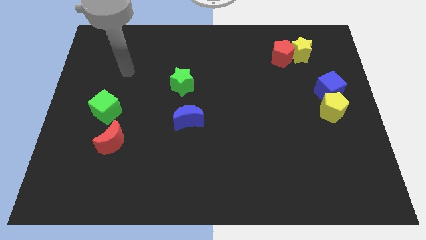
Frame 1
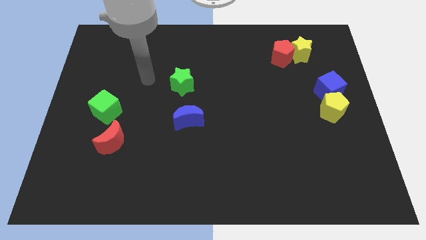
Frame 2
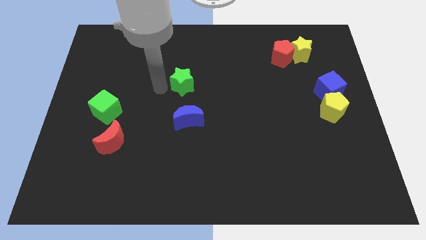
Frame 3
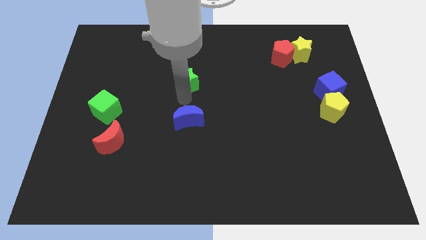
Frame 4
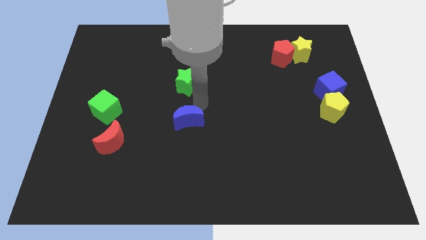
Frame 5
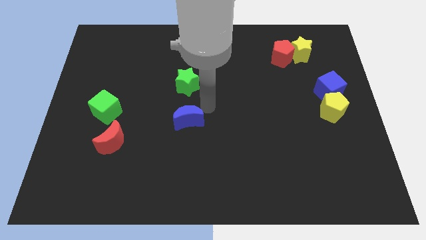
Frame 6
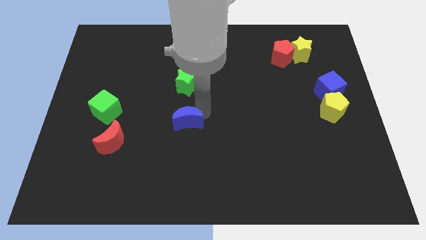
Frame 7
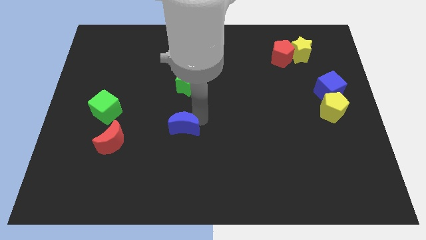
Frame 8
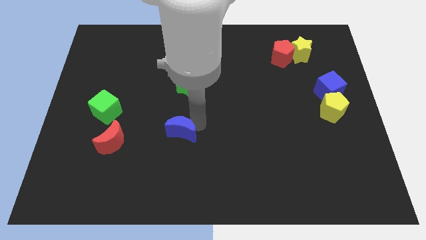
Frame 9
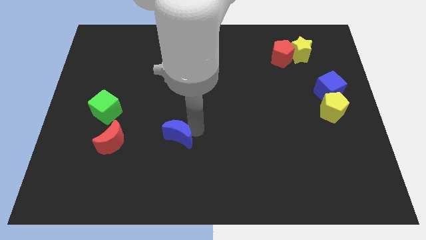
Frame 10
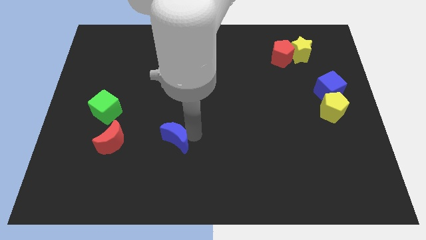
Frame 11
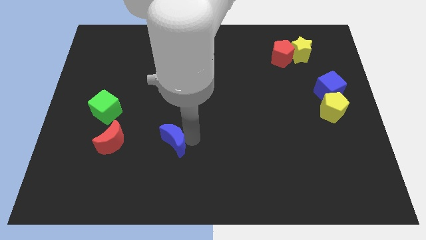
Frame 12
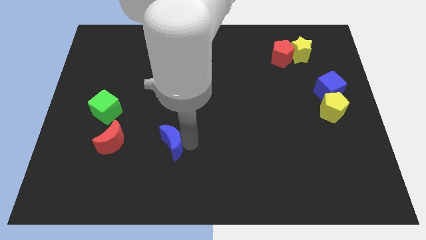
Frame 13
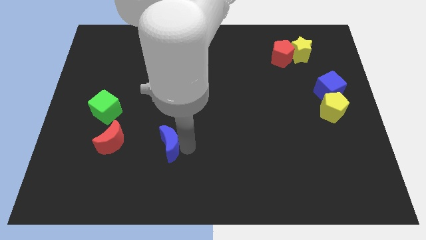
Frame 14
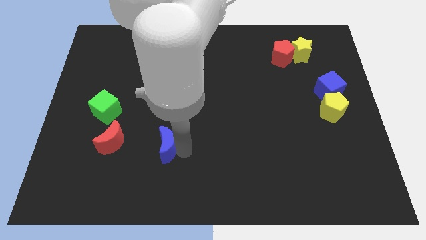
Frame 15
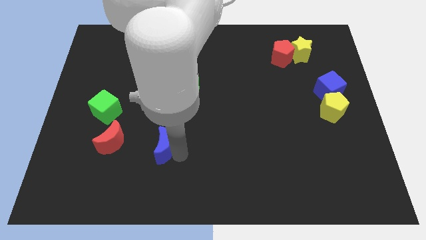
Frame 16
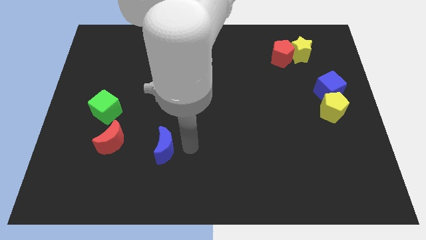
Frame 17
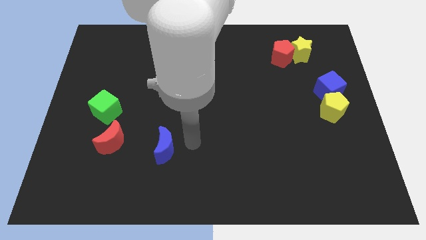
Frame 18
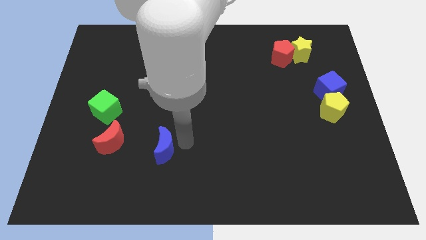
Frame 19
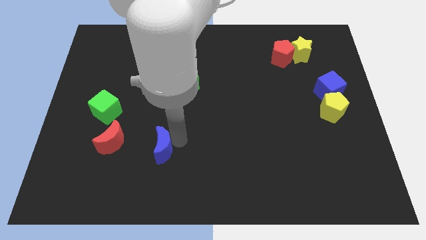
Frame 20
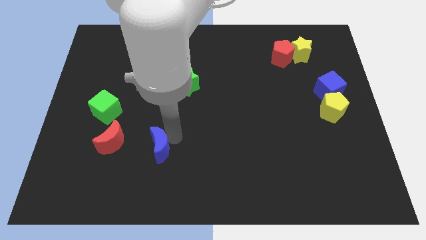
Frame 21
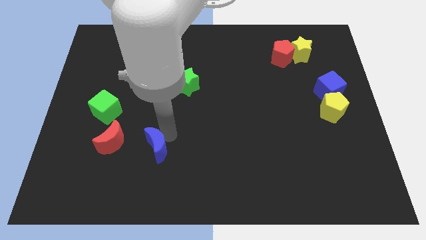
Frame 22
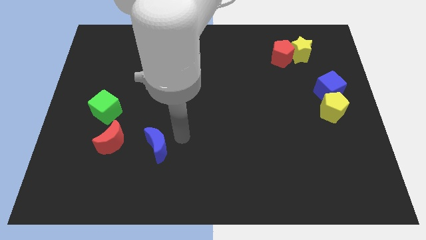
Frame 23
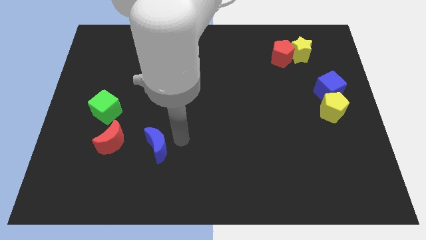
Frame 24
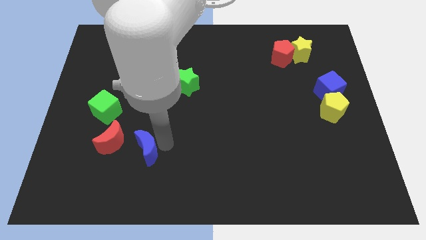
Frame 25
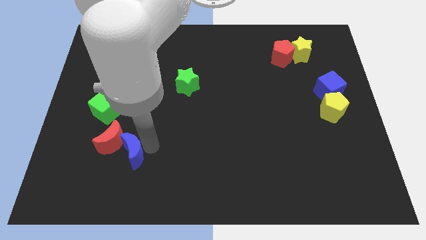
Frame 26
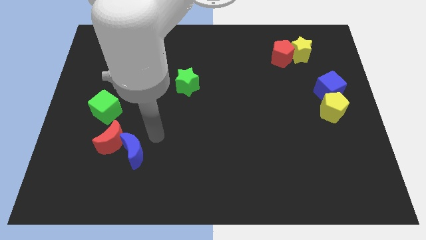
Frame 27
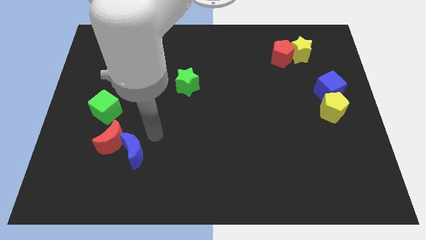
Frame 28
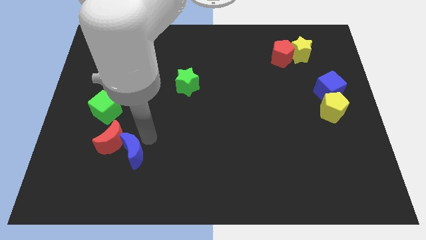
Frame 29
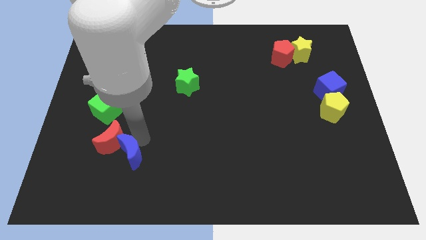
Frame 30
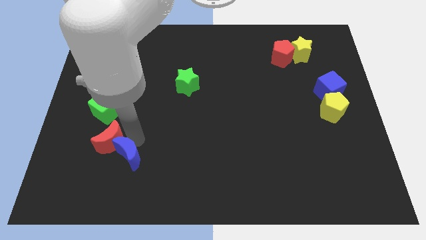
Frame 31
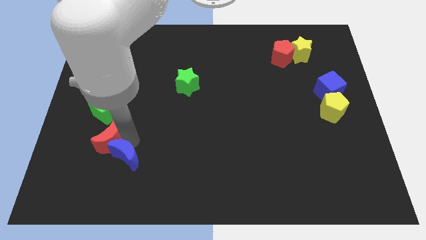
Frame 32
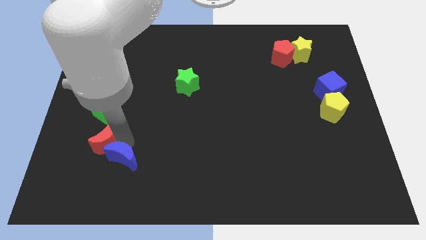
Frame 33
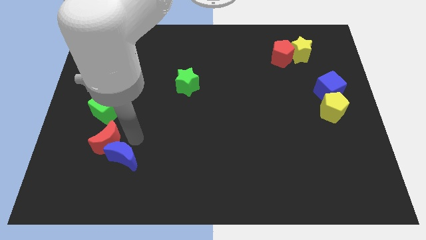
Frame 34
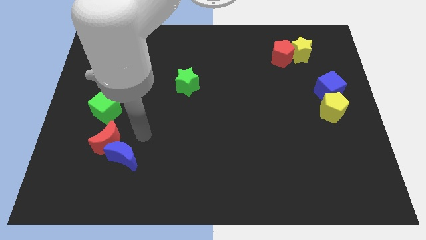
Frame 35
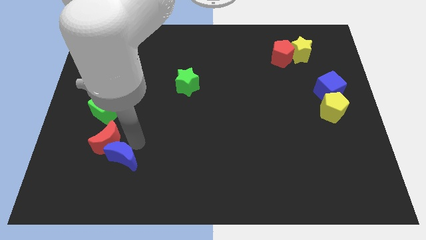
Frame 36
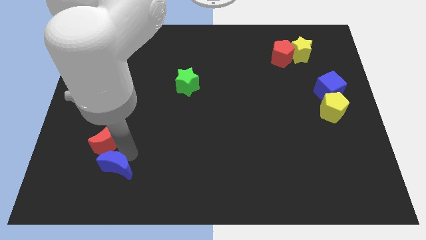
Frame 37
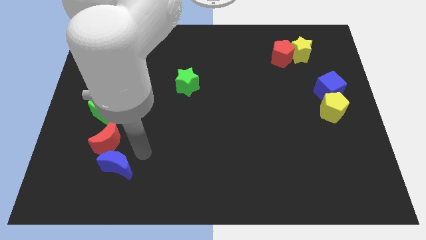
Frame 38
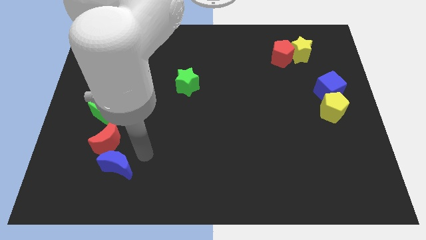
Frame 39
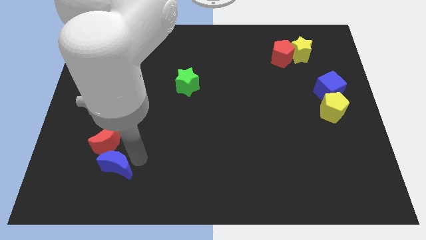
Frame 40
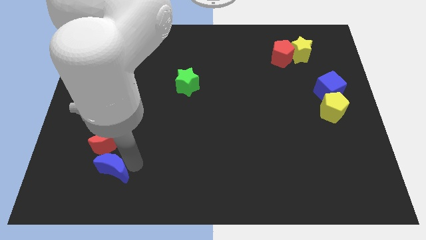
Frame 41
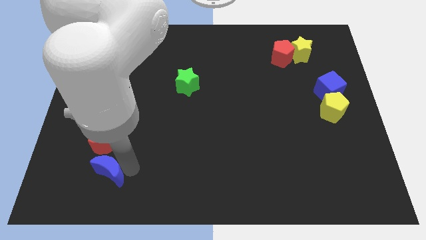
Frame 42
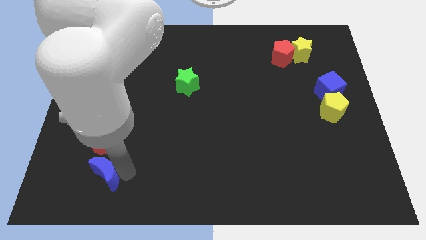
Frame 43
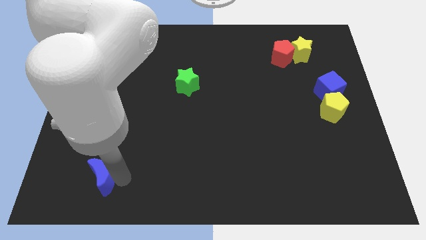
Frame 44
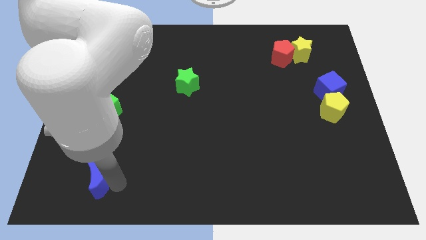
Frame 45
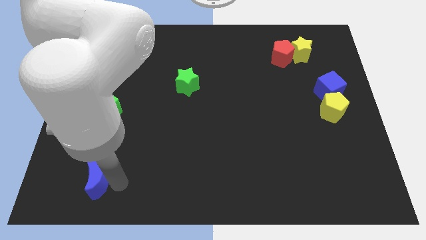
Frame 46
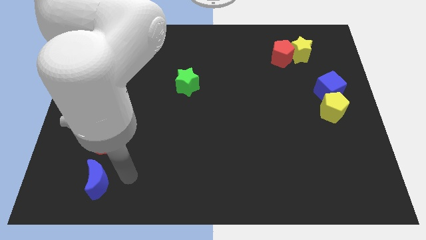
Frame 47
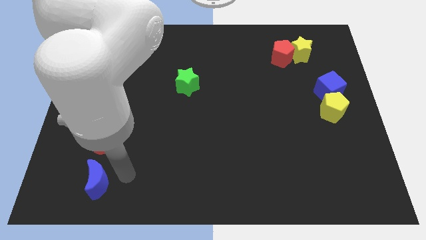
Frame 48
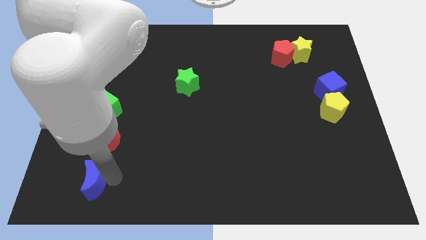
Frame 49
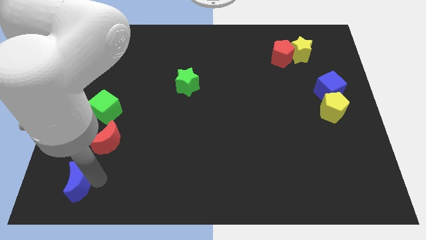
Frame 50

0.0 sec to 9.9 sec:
push the blue moon to the lower left corner

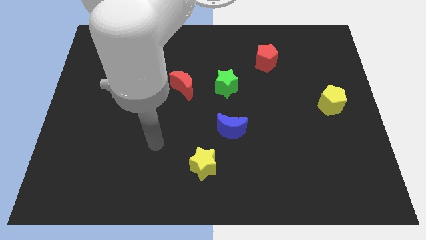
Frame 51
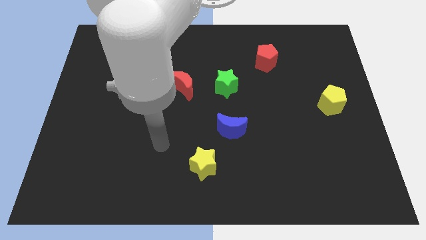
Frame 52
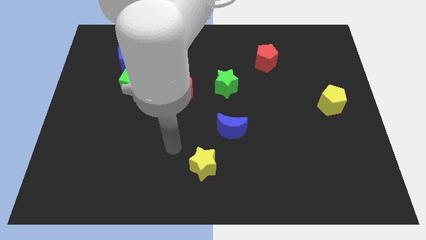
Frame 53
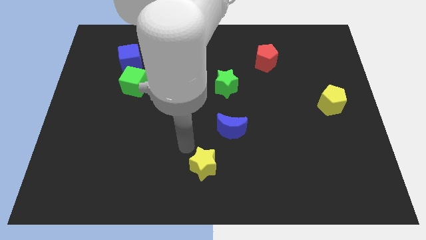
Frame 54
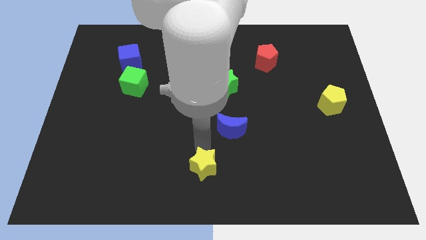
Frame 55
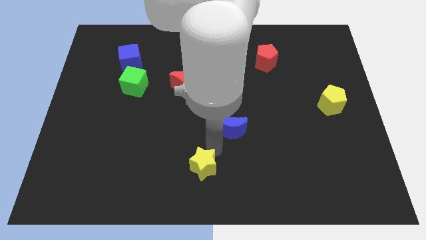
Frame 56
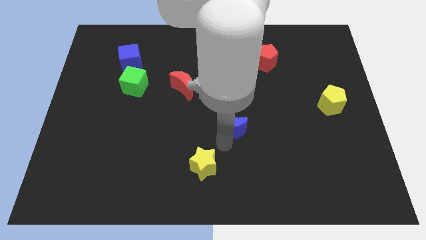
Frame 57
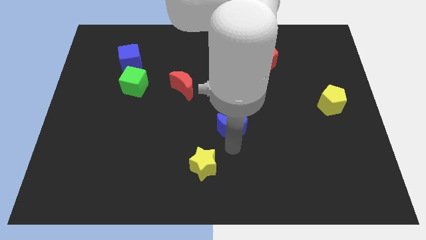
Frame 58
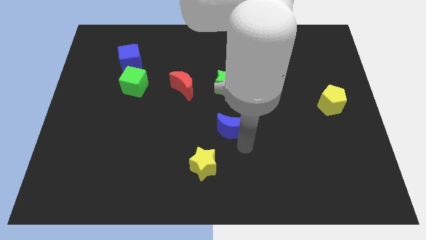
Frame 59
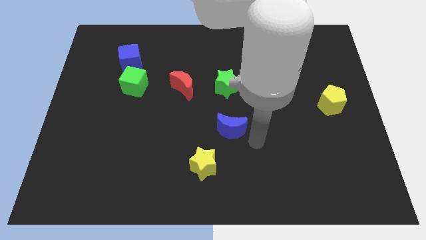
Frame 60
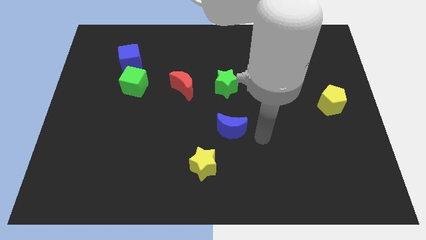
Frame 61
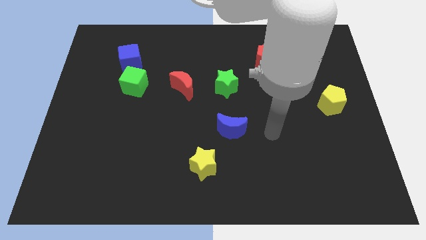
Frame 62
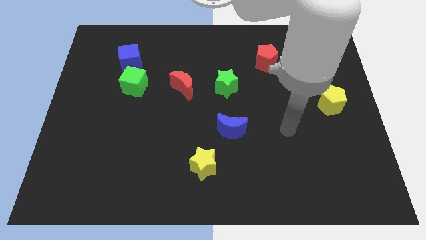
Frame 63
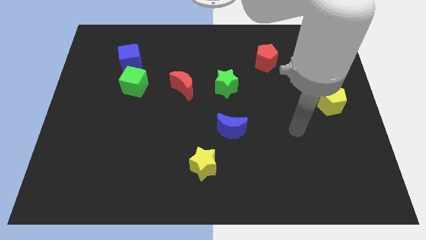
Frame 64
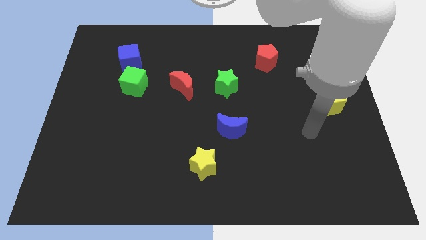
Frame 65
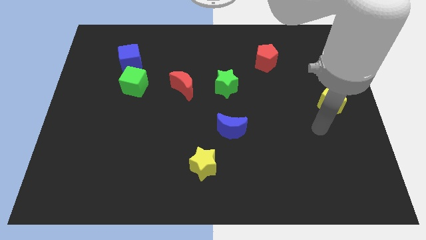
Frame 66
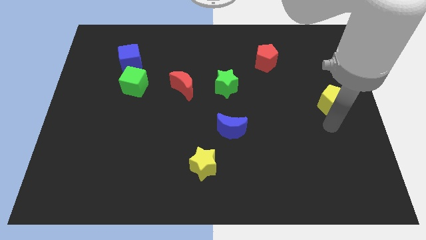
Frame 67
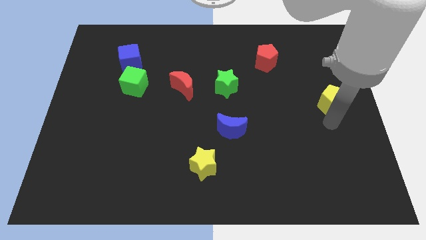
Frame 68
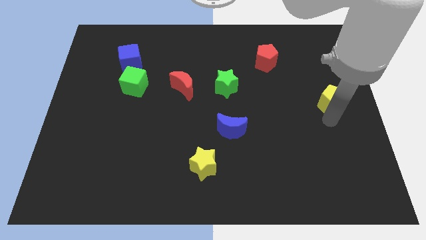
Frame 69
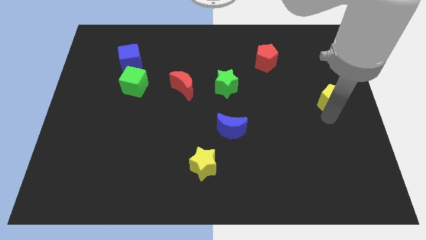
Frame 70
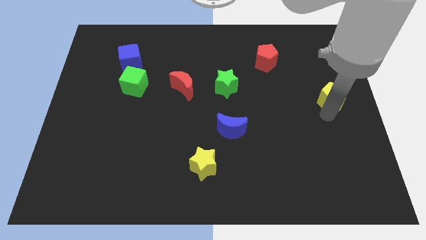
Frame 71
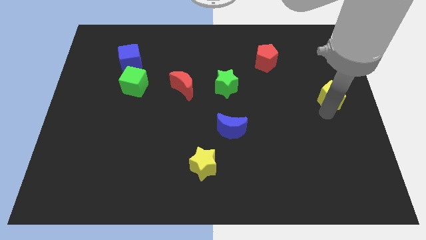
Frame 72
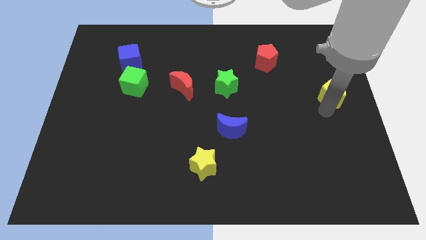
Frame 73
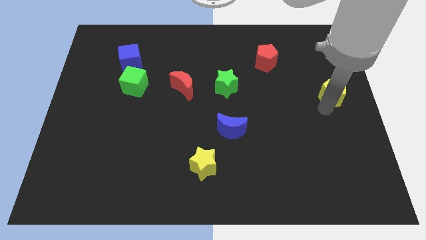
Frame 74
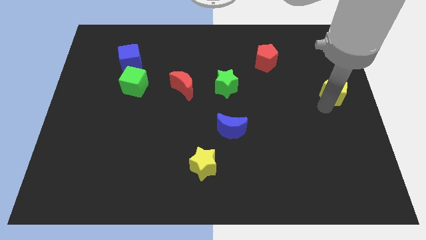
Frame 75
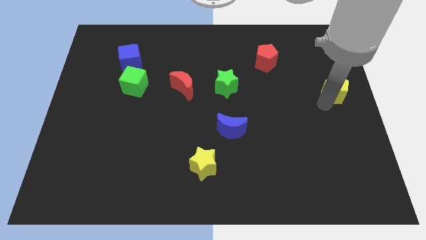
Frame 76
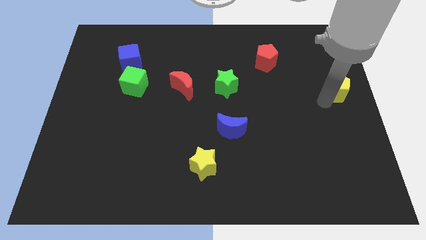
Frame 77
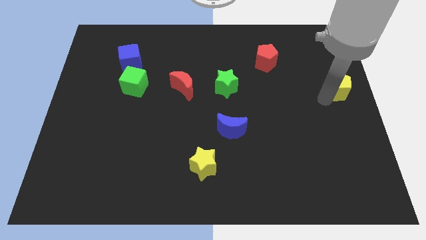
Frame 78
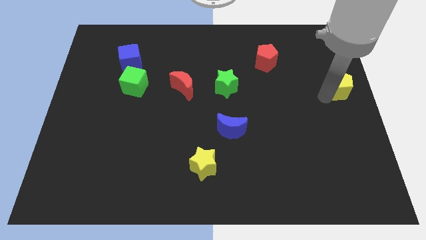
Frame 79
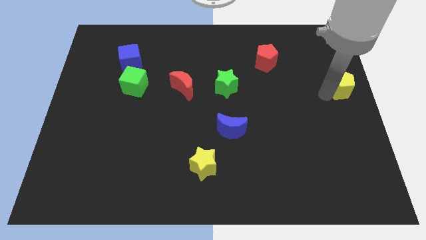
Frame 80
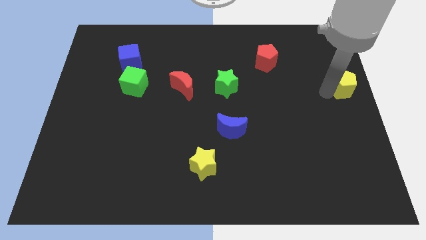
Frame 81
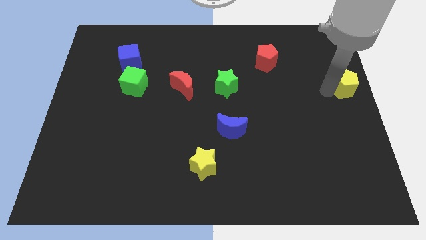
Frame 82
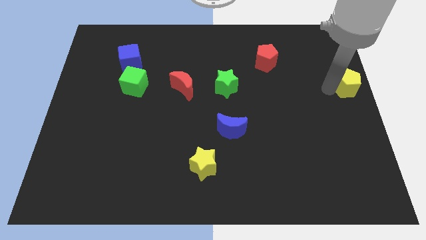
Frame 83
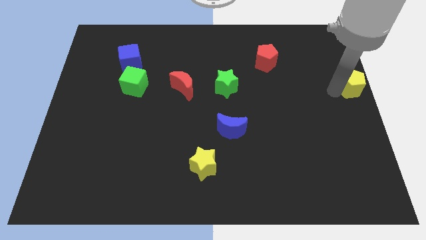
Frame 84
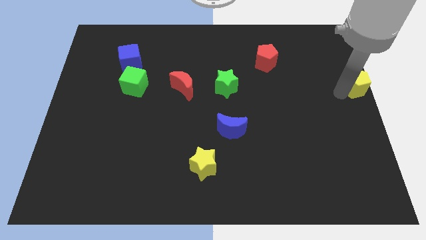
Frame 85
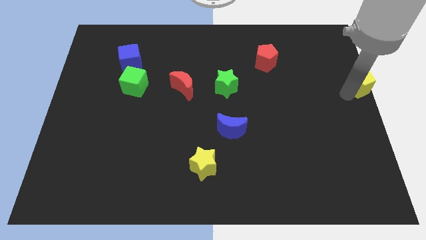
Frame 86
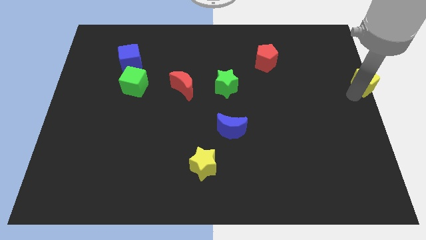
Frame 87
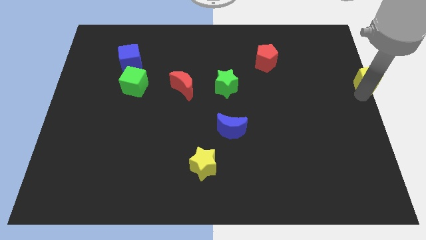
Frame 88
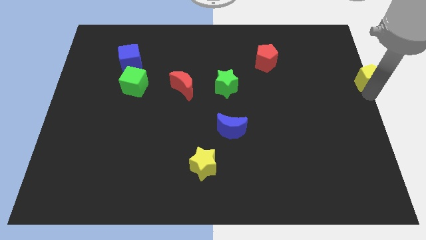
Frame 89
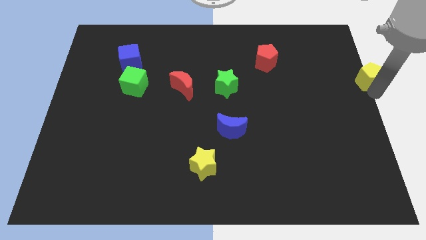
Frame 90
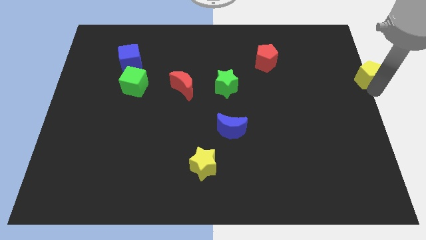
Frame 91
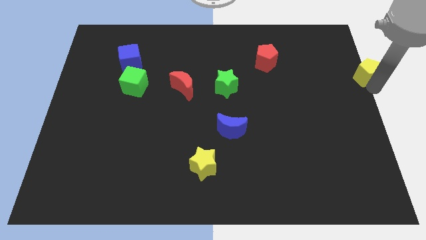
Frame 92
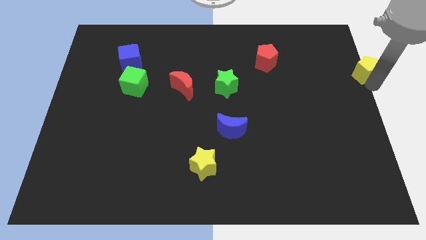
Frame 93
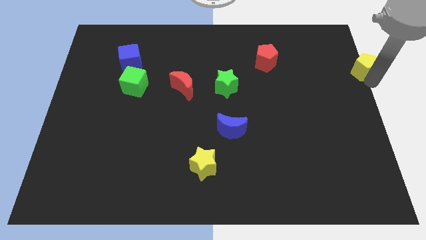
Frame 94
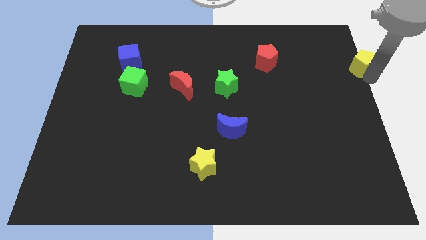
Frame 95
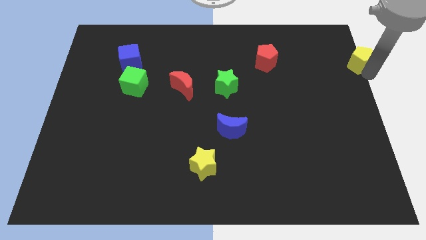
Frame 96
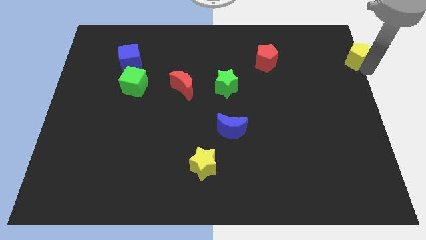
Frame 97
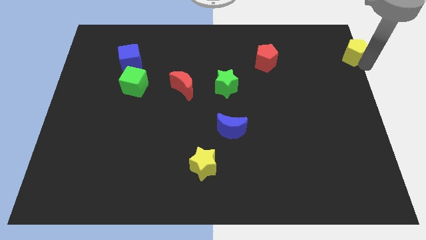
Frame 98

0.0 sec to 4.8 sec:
put the yellow pentagon to the top right
